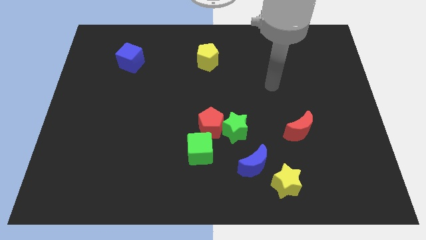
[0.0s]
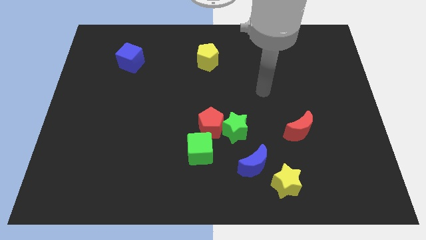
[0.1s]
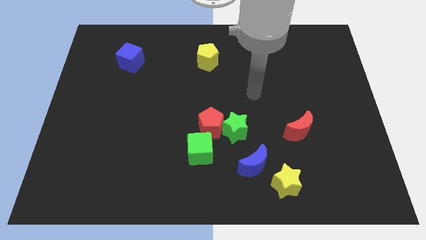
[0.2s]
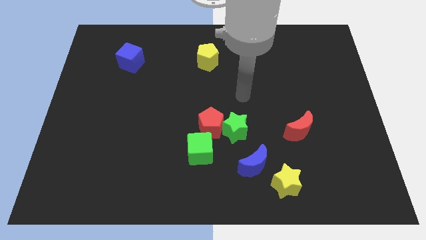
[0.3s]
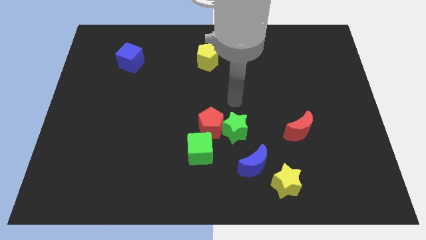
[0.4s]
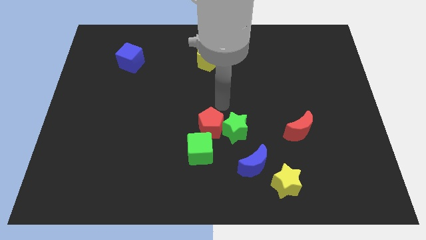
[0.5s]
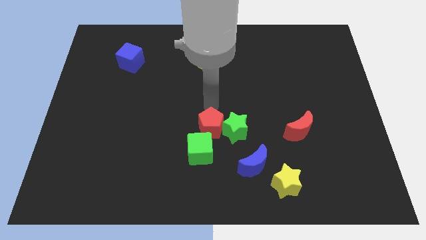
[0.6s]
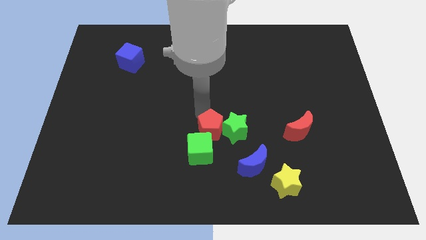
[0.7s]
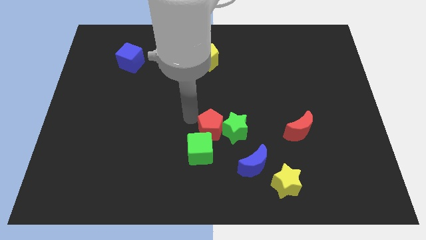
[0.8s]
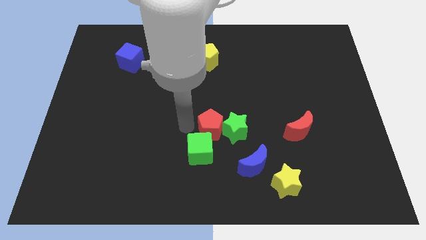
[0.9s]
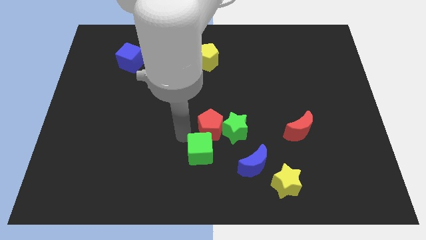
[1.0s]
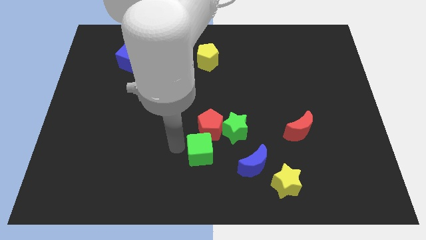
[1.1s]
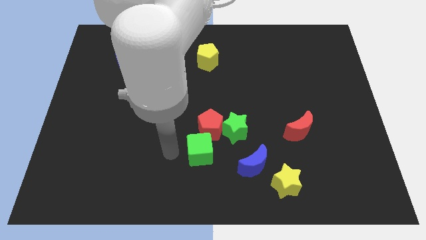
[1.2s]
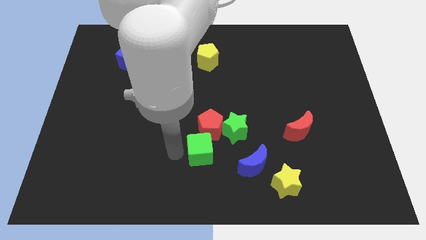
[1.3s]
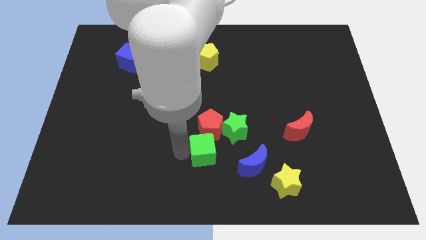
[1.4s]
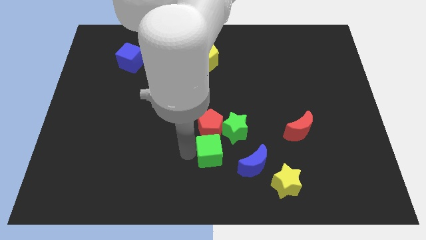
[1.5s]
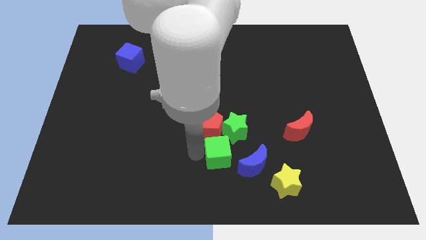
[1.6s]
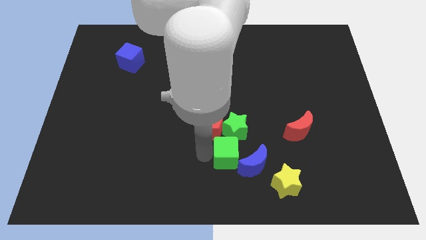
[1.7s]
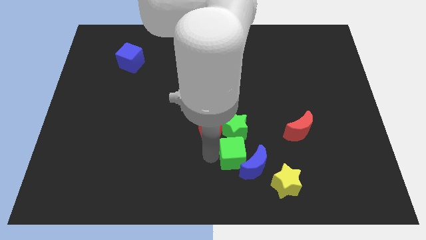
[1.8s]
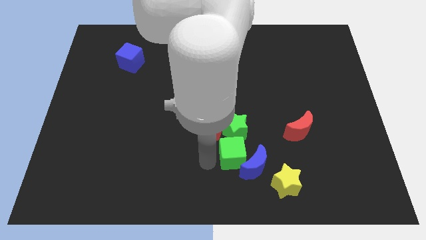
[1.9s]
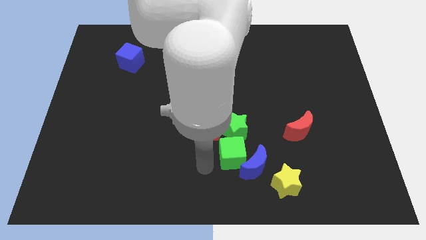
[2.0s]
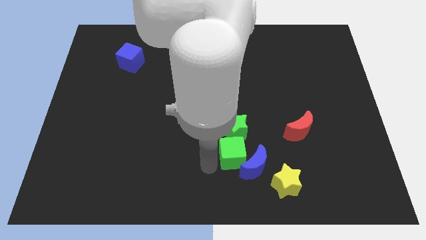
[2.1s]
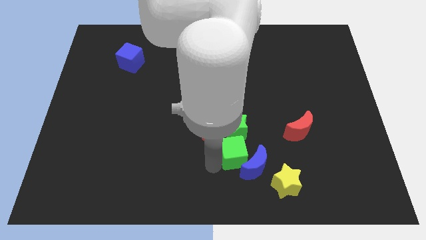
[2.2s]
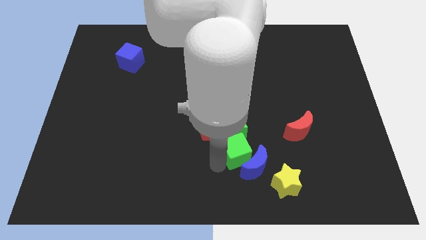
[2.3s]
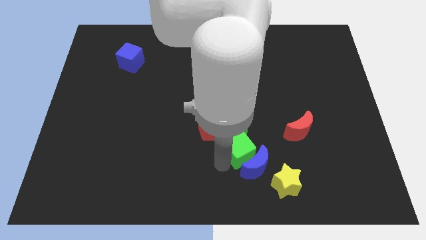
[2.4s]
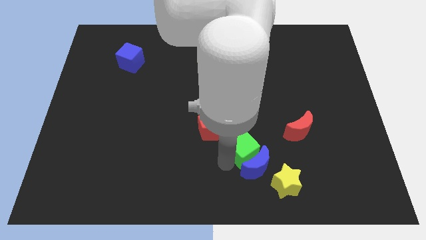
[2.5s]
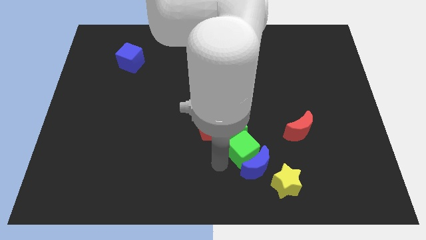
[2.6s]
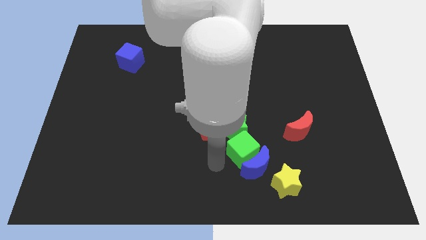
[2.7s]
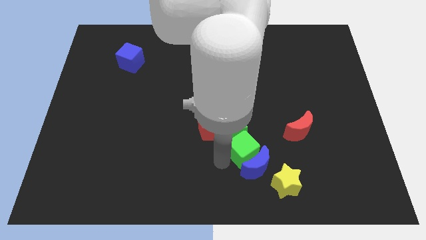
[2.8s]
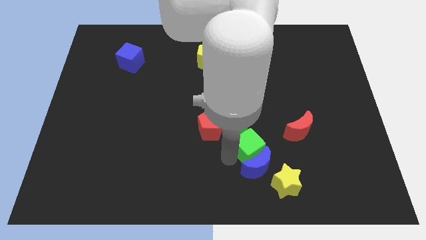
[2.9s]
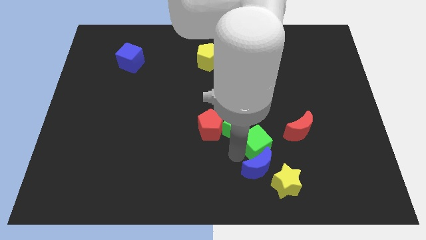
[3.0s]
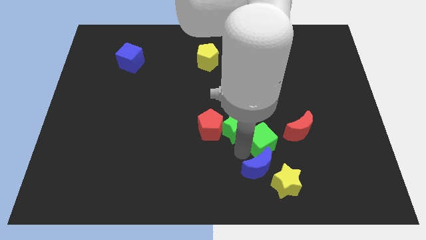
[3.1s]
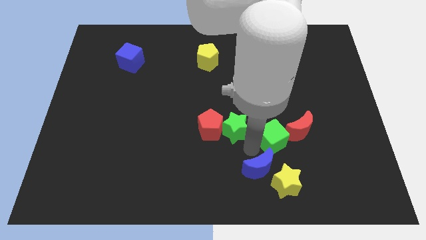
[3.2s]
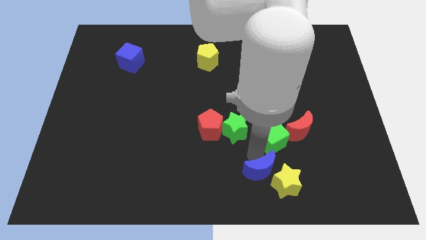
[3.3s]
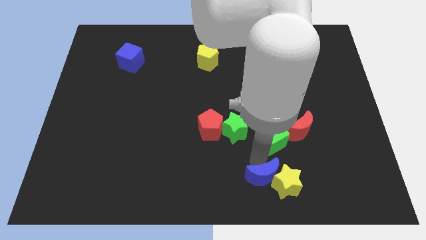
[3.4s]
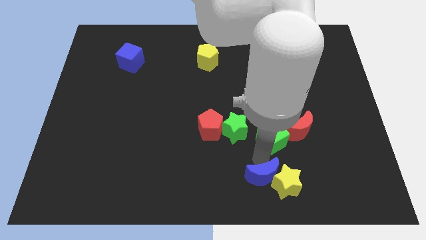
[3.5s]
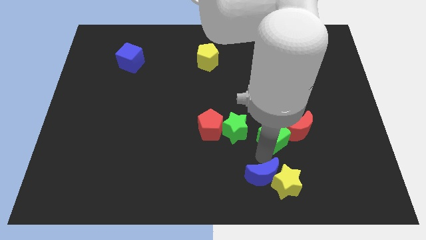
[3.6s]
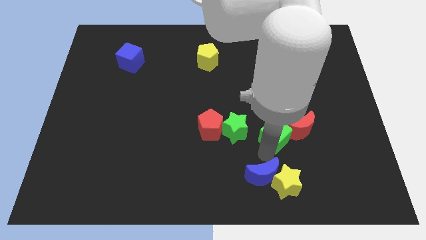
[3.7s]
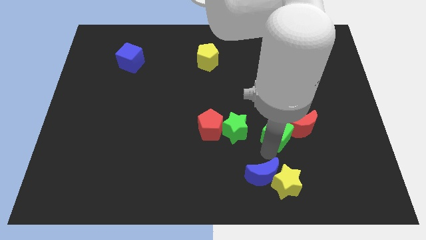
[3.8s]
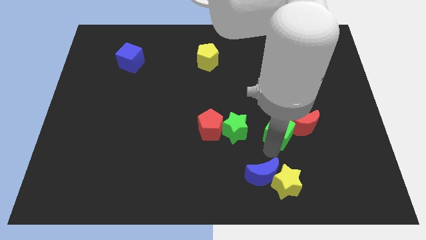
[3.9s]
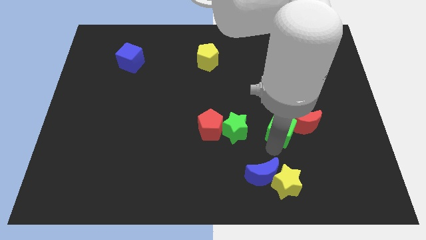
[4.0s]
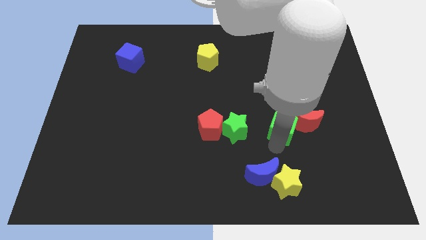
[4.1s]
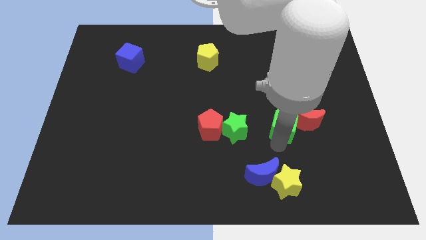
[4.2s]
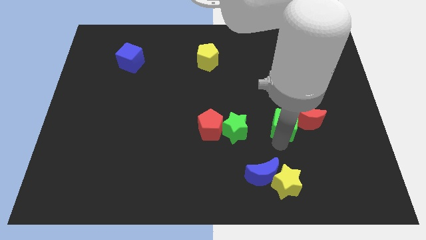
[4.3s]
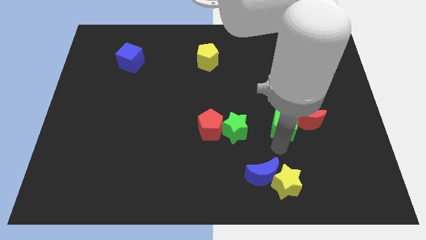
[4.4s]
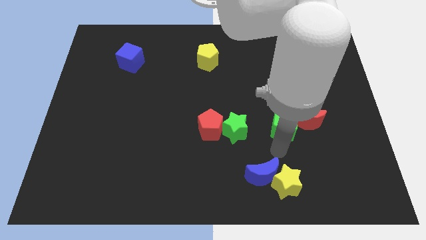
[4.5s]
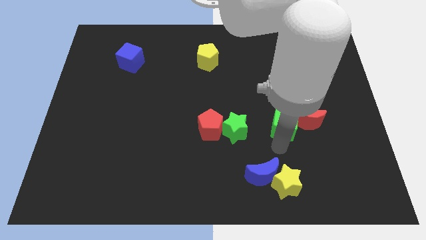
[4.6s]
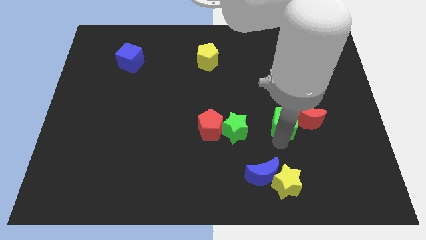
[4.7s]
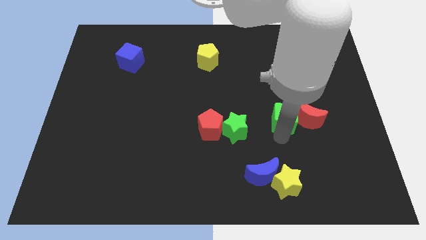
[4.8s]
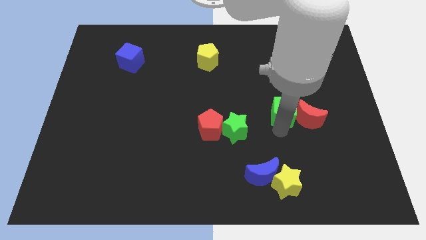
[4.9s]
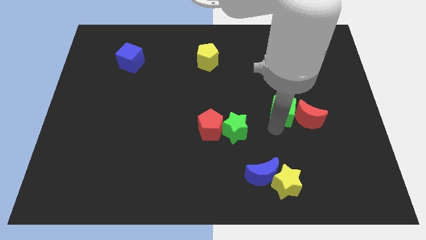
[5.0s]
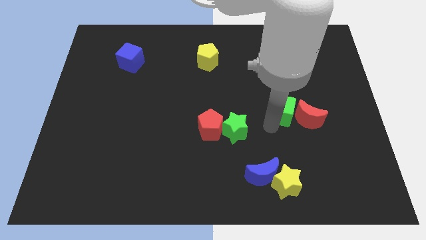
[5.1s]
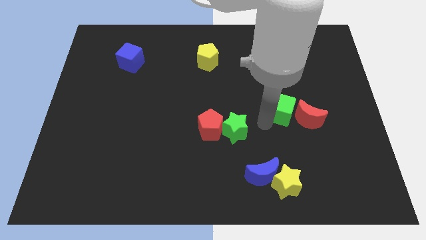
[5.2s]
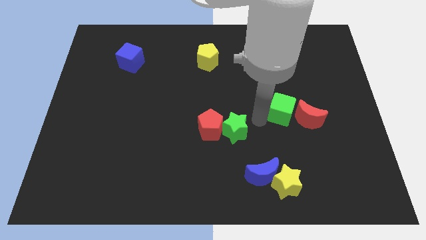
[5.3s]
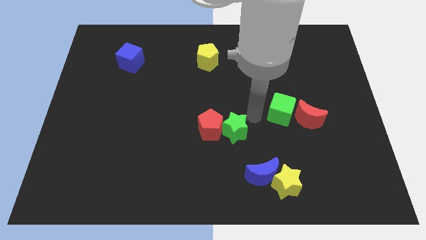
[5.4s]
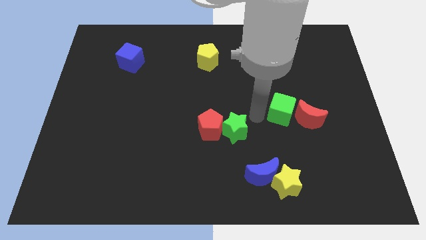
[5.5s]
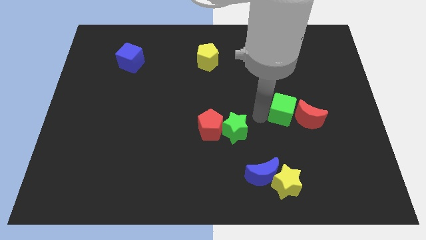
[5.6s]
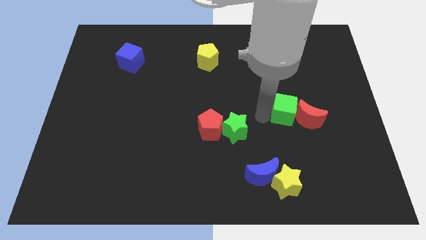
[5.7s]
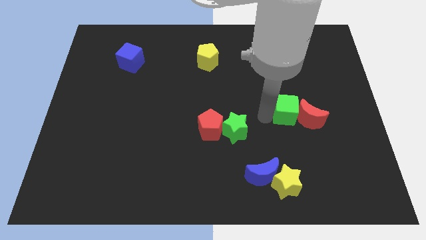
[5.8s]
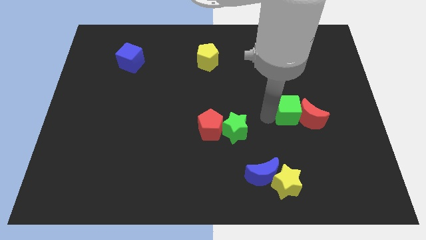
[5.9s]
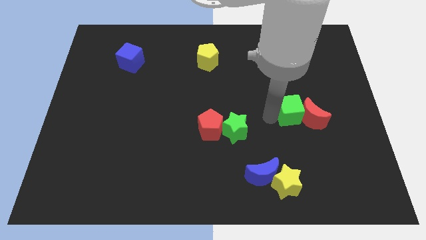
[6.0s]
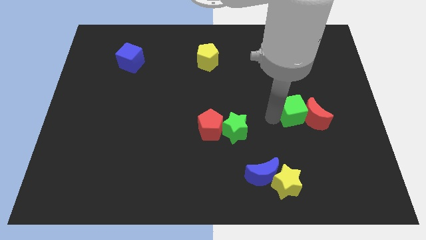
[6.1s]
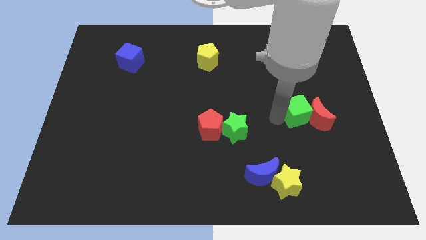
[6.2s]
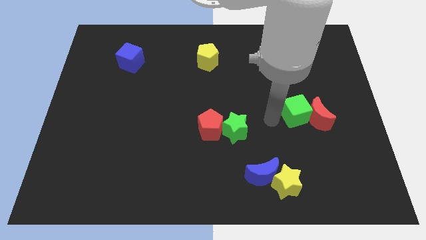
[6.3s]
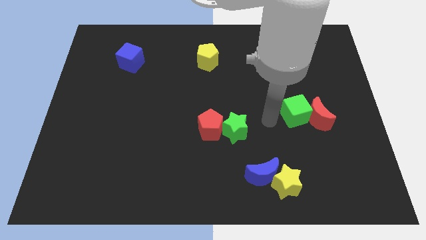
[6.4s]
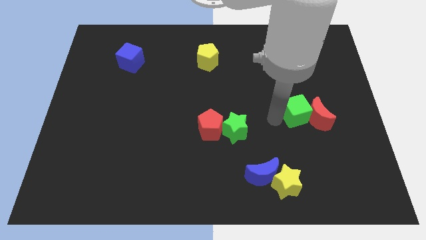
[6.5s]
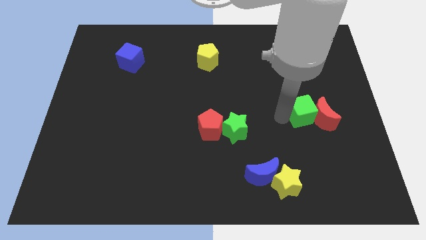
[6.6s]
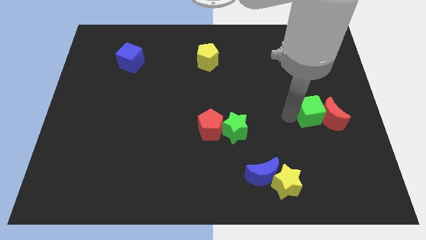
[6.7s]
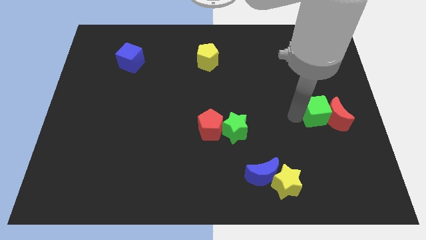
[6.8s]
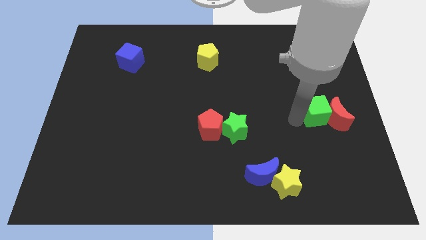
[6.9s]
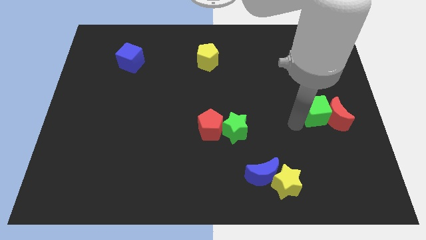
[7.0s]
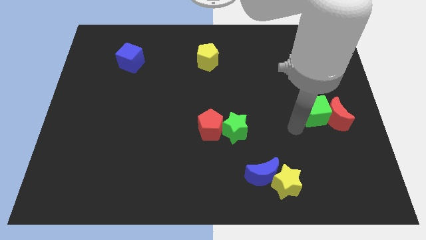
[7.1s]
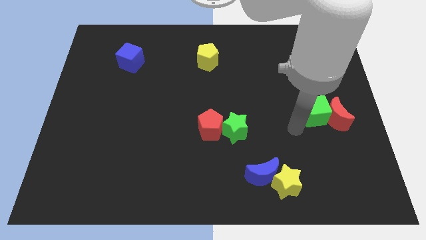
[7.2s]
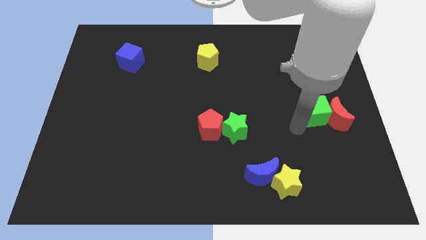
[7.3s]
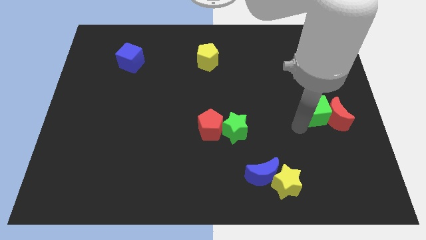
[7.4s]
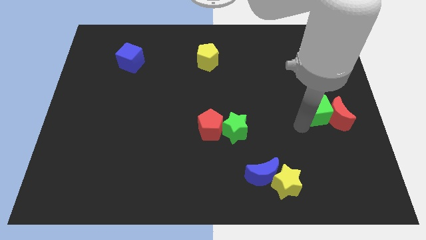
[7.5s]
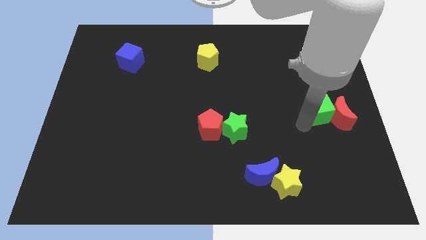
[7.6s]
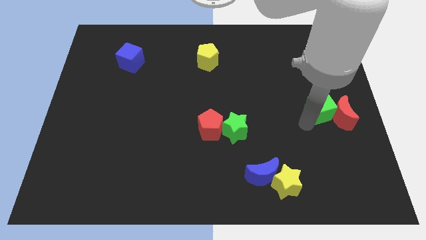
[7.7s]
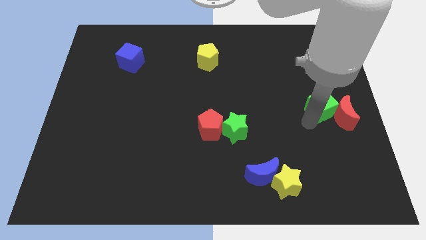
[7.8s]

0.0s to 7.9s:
slide the green cube to the right side
